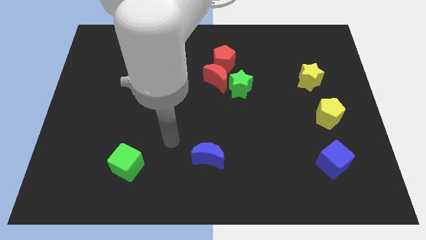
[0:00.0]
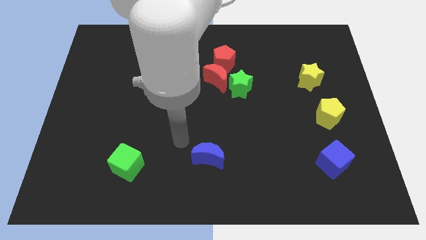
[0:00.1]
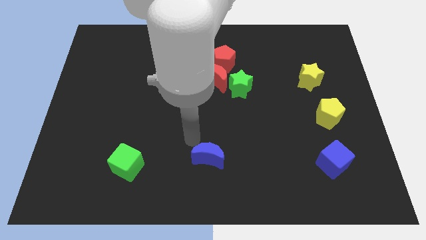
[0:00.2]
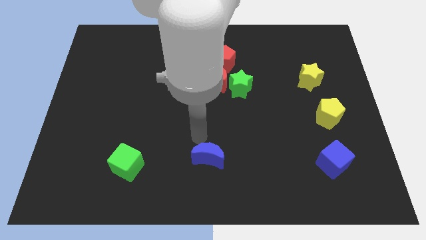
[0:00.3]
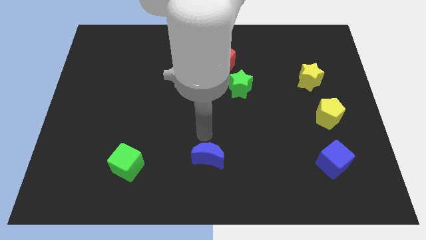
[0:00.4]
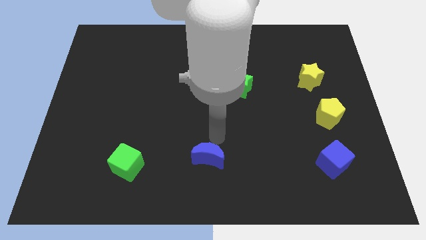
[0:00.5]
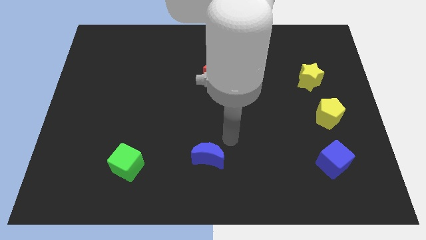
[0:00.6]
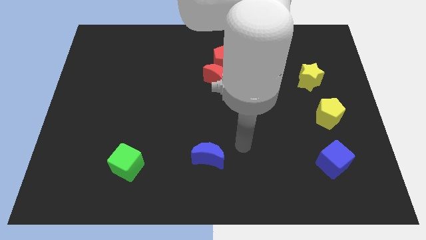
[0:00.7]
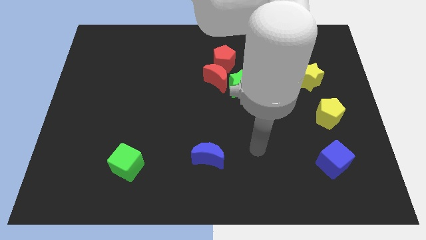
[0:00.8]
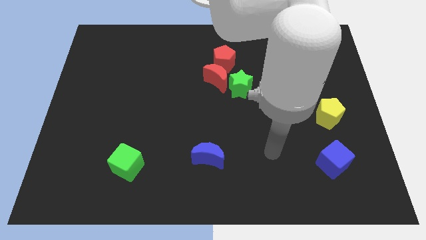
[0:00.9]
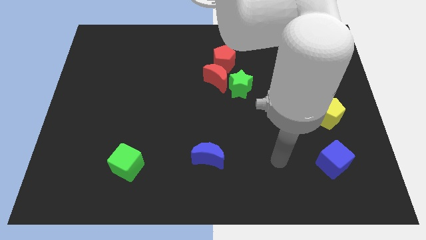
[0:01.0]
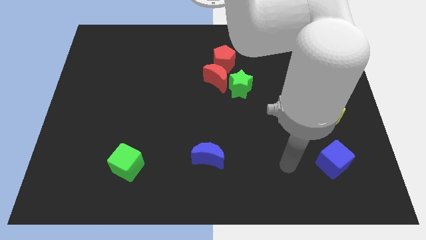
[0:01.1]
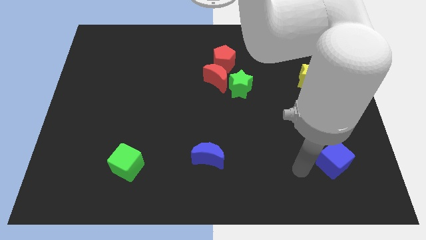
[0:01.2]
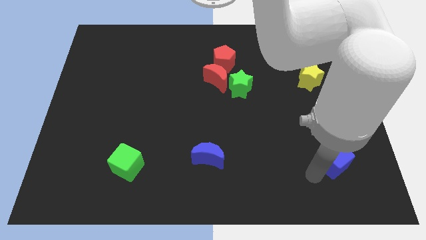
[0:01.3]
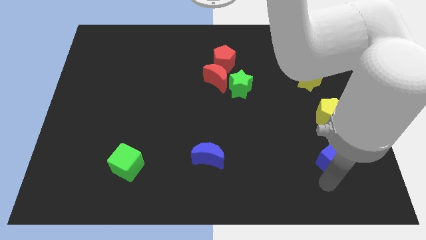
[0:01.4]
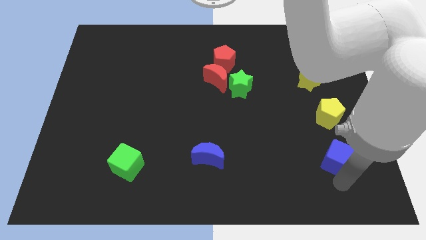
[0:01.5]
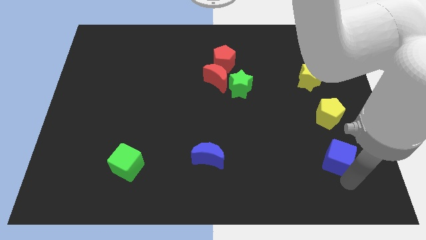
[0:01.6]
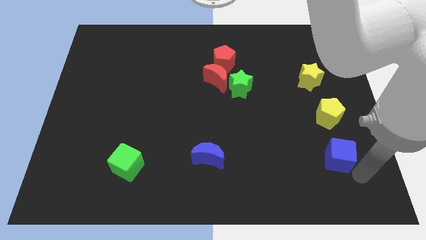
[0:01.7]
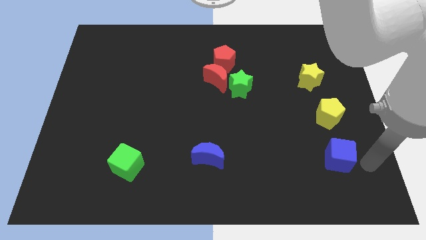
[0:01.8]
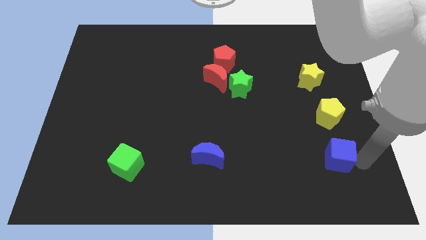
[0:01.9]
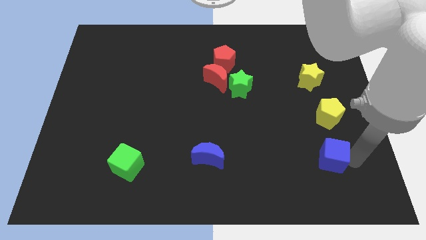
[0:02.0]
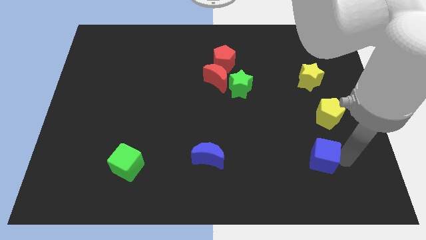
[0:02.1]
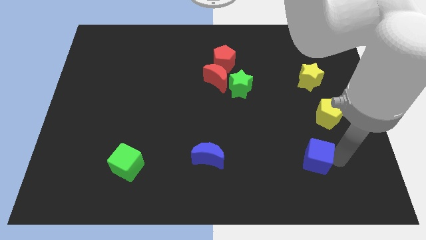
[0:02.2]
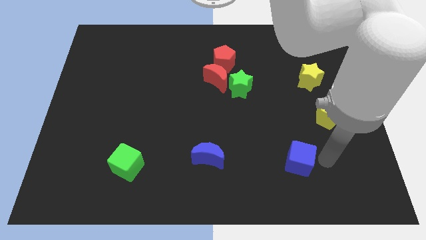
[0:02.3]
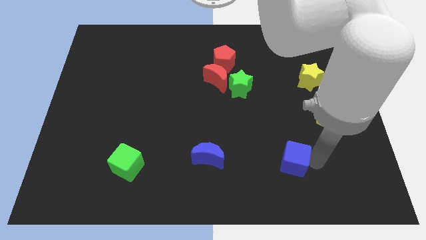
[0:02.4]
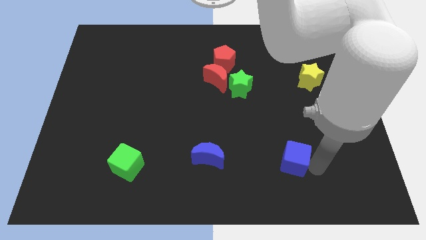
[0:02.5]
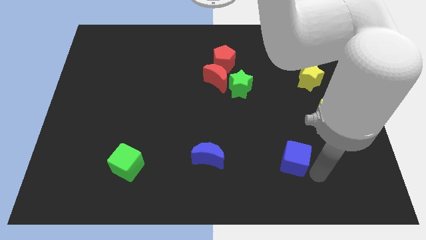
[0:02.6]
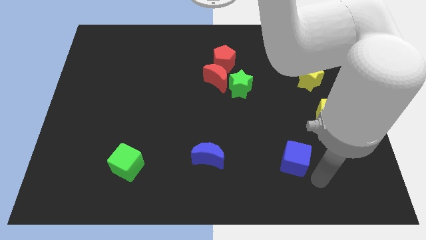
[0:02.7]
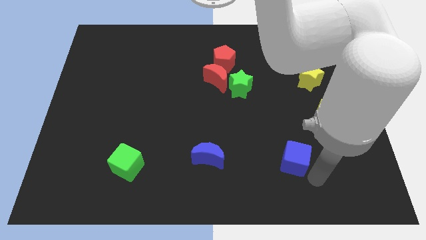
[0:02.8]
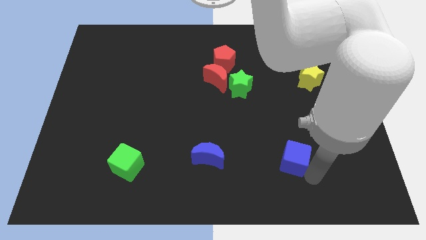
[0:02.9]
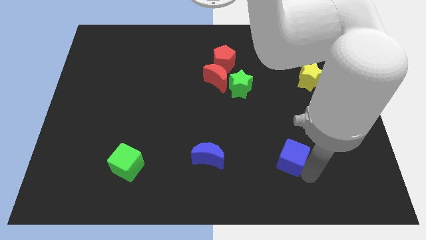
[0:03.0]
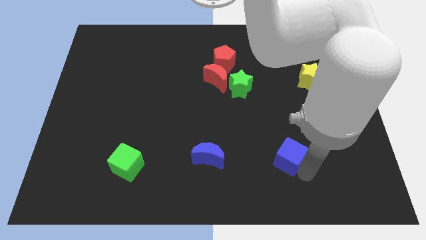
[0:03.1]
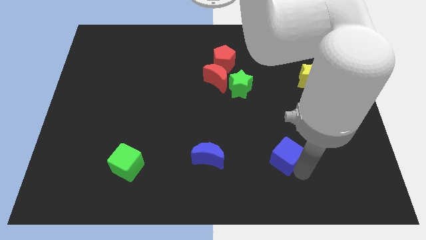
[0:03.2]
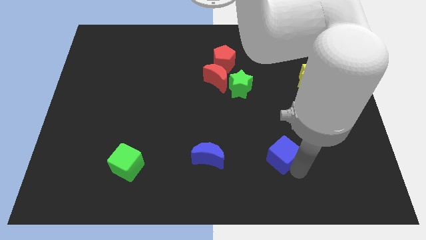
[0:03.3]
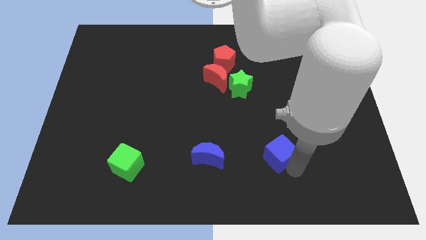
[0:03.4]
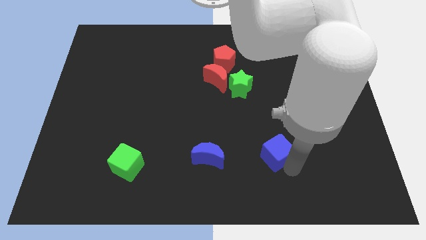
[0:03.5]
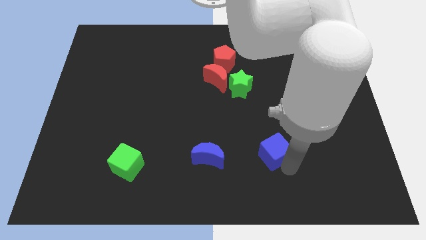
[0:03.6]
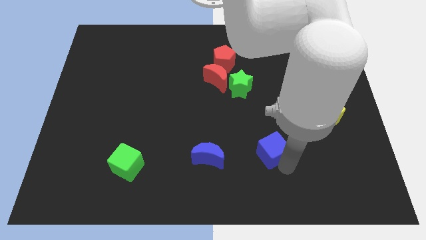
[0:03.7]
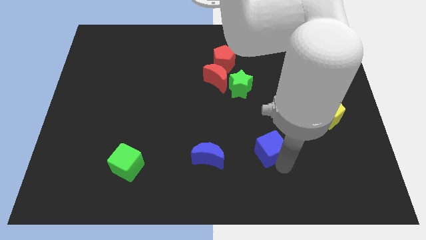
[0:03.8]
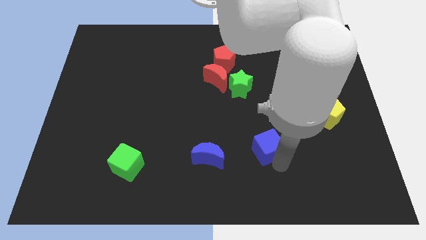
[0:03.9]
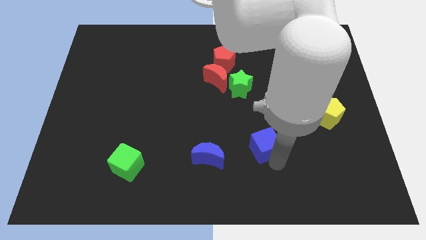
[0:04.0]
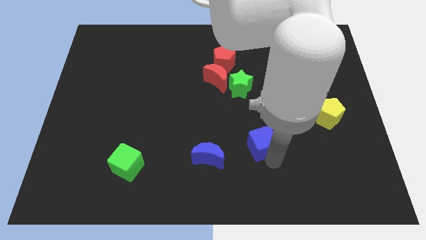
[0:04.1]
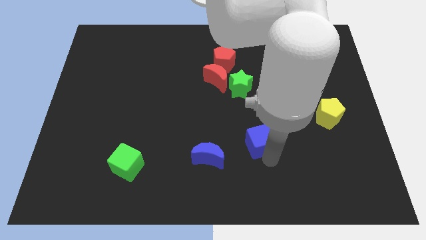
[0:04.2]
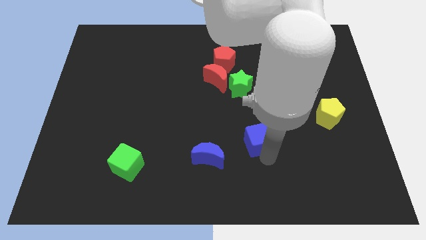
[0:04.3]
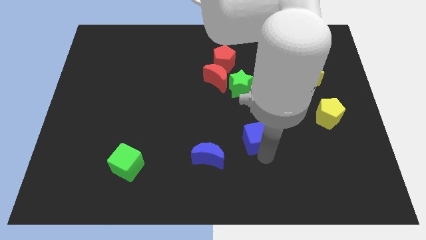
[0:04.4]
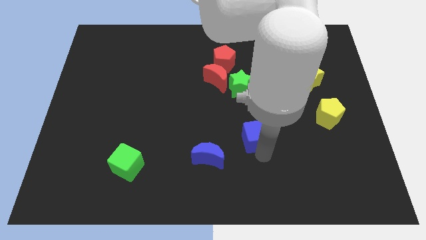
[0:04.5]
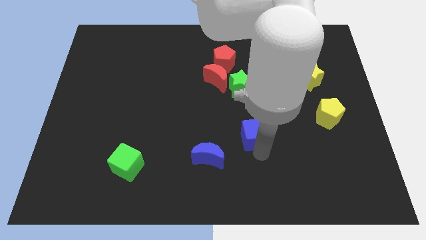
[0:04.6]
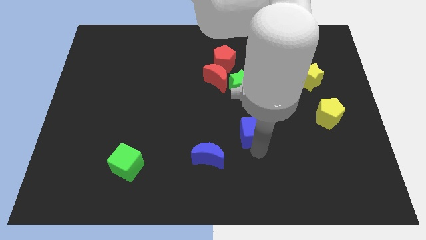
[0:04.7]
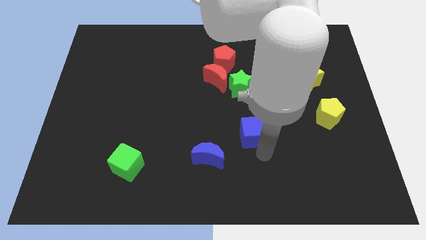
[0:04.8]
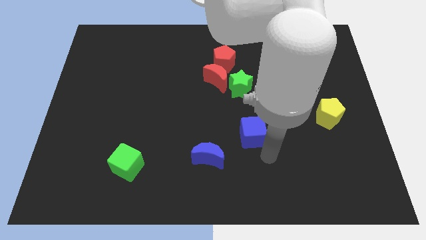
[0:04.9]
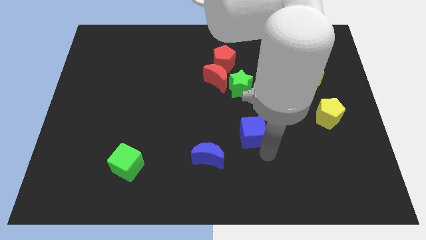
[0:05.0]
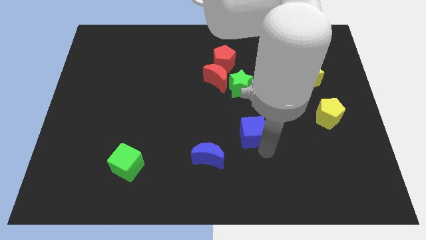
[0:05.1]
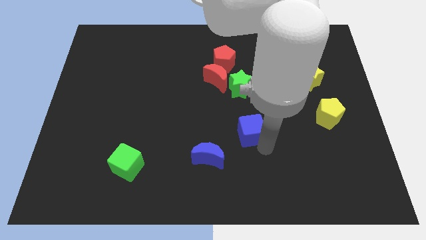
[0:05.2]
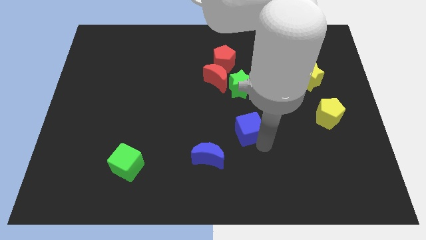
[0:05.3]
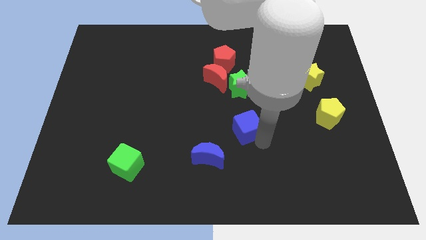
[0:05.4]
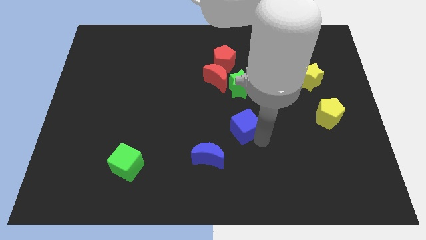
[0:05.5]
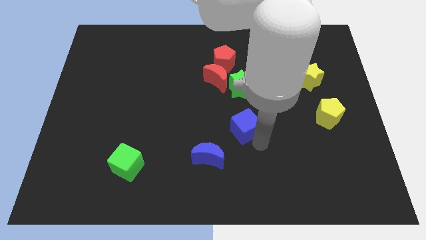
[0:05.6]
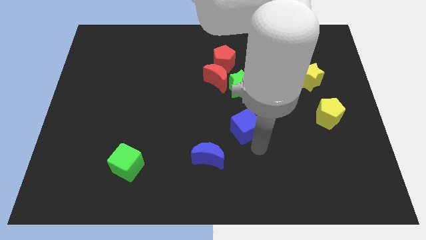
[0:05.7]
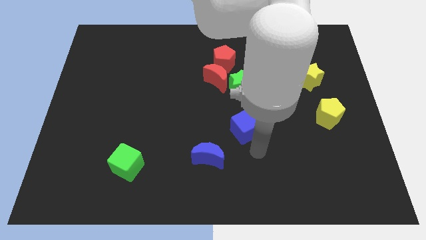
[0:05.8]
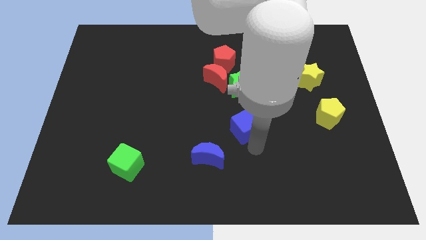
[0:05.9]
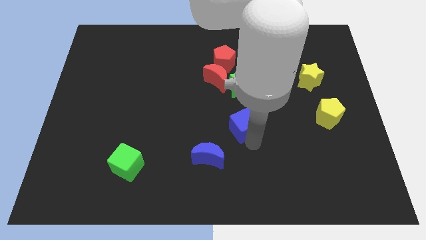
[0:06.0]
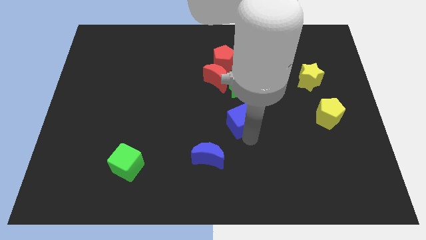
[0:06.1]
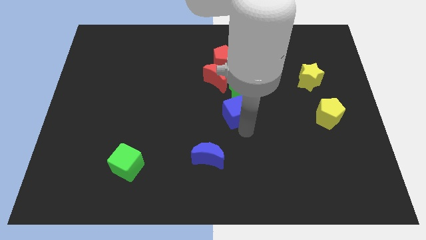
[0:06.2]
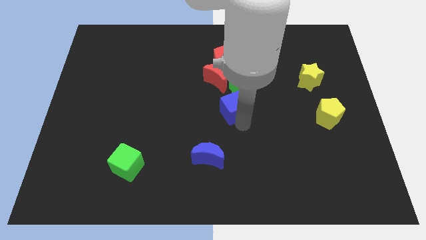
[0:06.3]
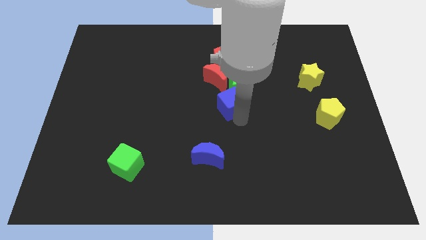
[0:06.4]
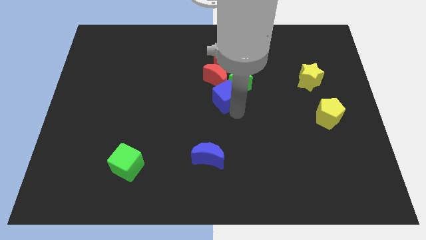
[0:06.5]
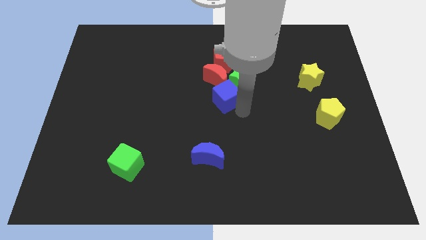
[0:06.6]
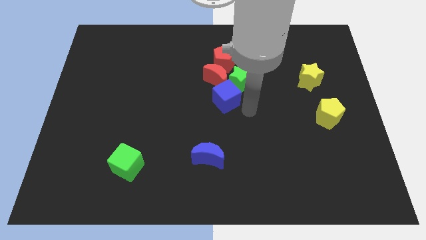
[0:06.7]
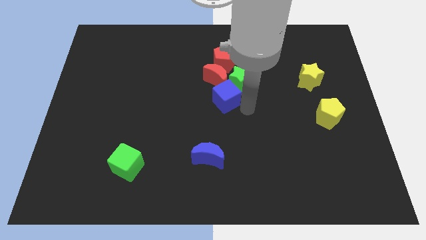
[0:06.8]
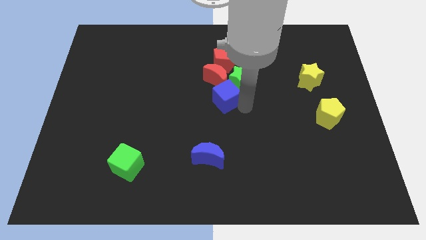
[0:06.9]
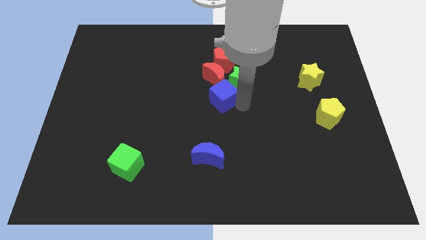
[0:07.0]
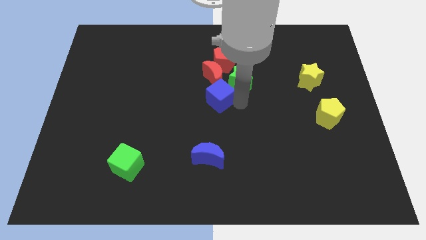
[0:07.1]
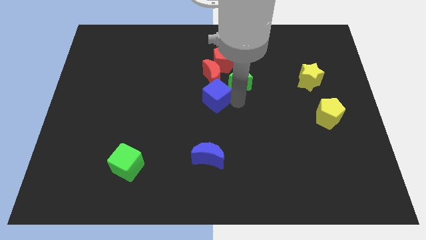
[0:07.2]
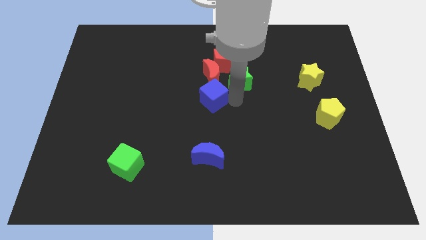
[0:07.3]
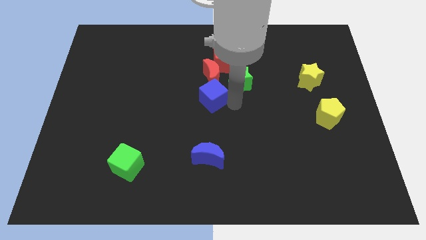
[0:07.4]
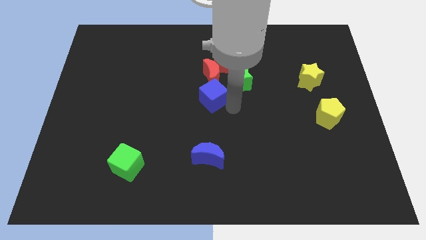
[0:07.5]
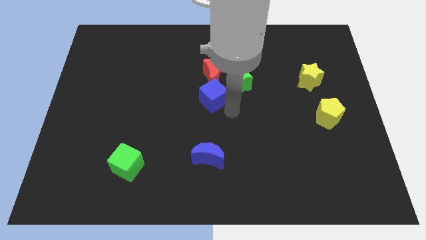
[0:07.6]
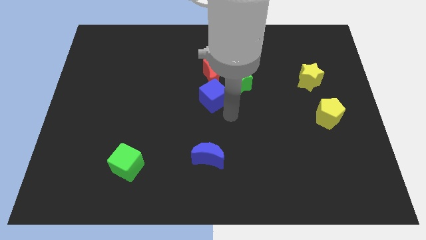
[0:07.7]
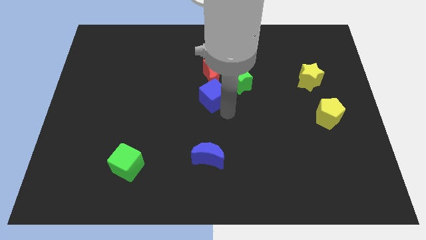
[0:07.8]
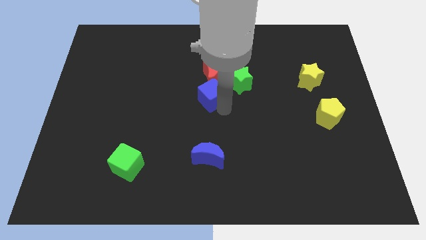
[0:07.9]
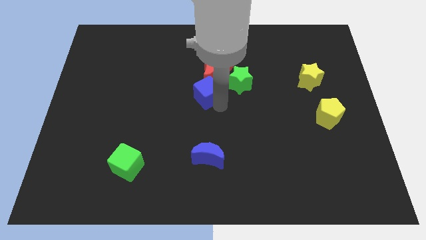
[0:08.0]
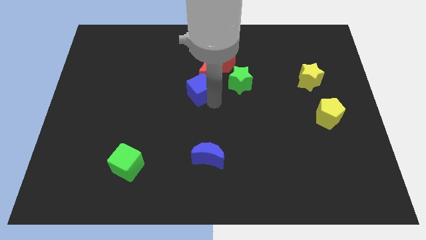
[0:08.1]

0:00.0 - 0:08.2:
push the blue cube diagonally down and to the left of the red pentagon
